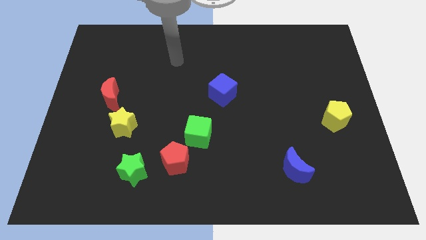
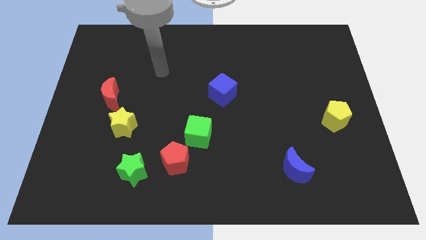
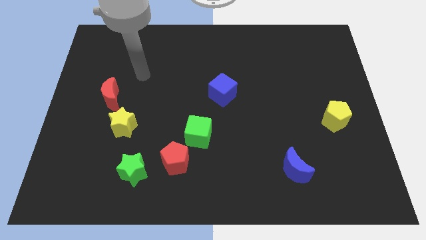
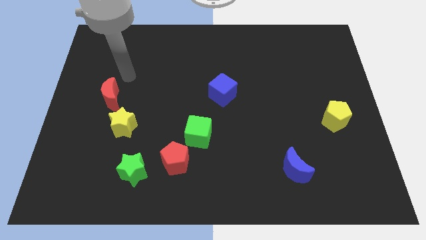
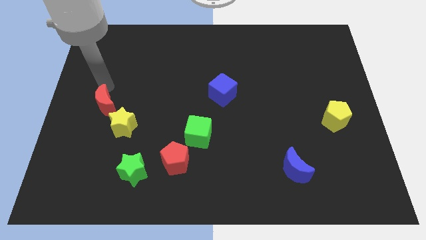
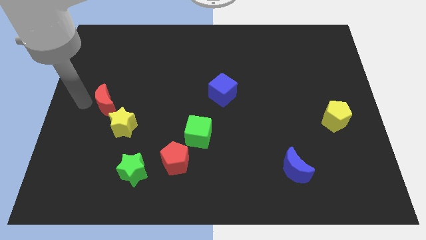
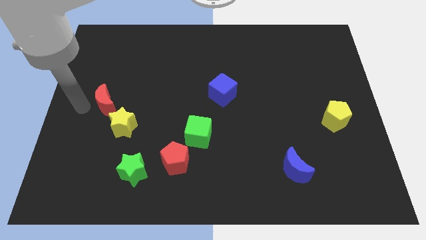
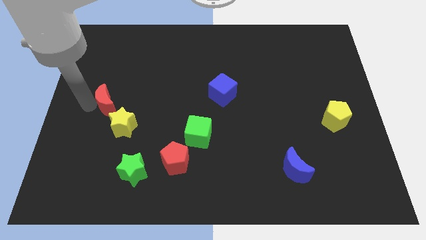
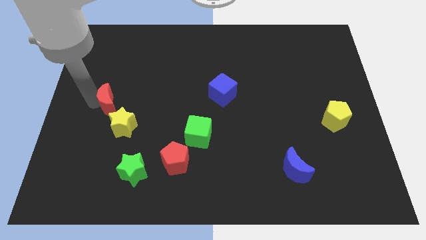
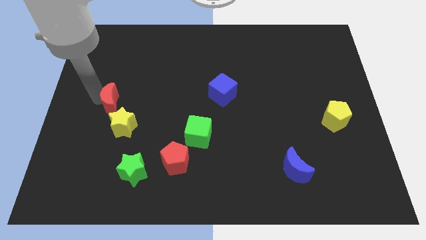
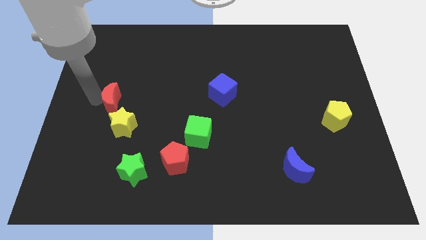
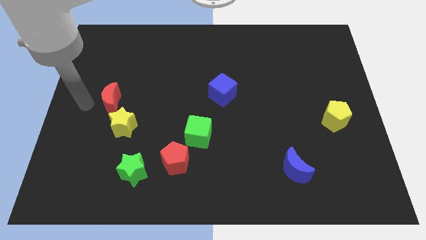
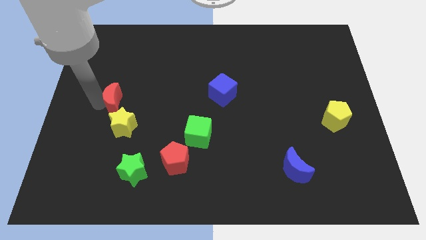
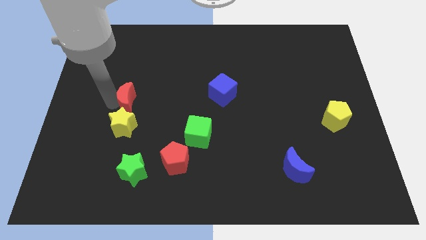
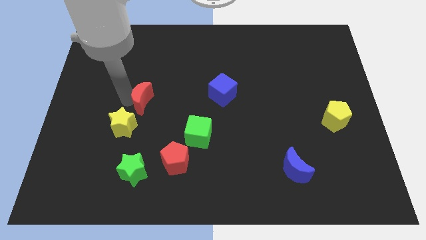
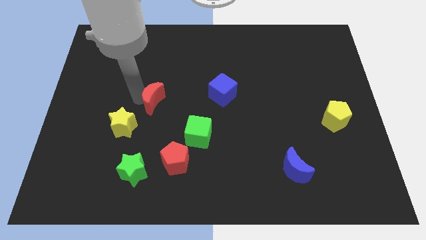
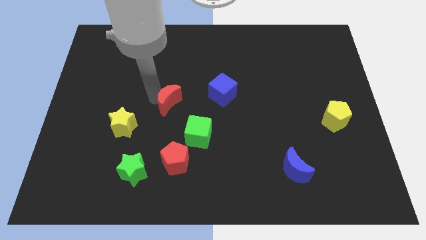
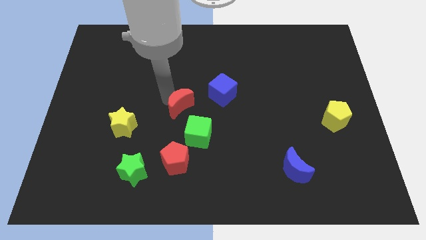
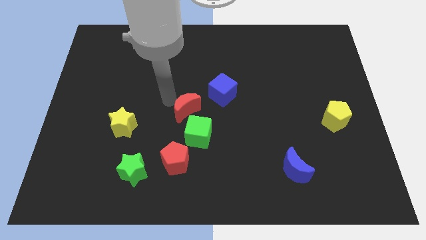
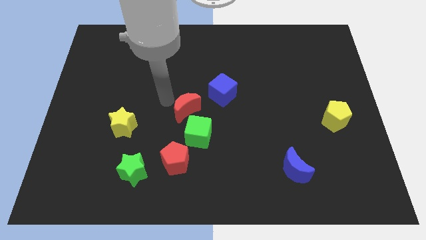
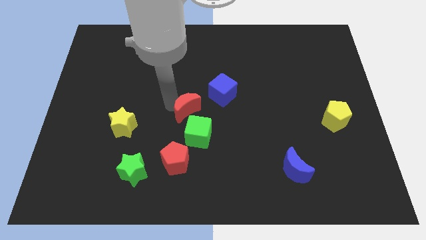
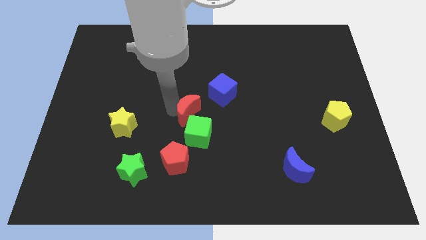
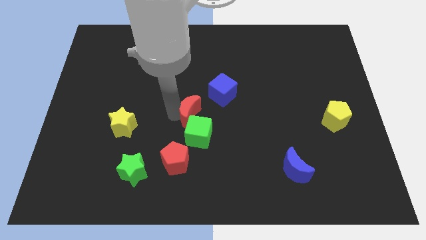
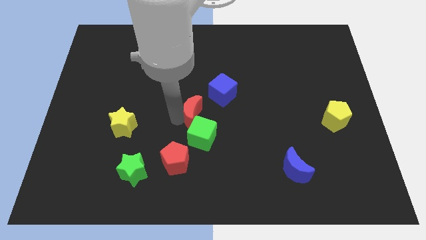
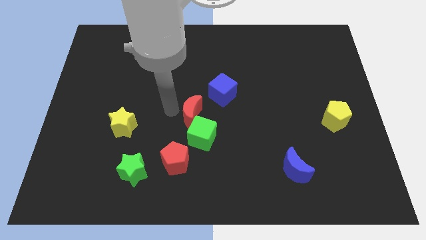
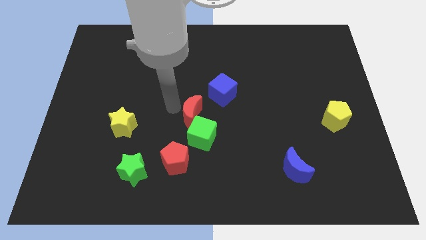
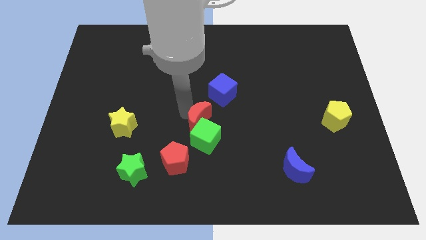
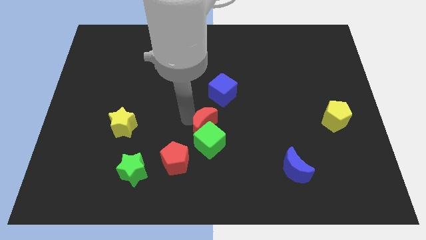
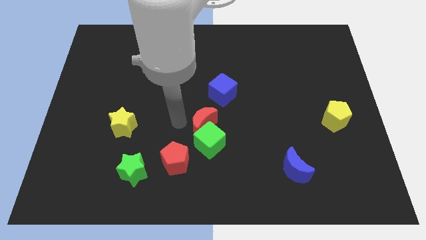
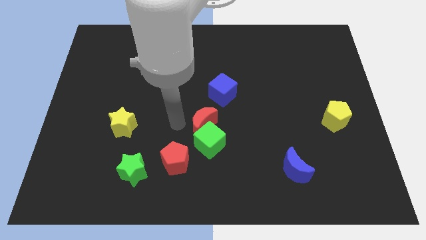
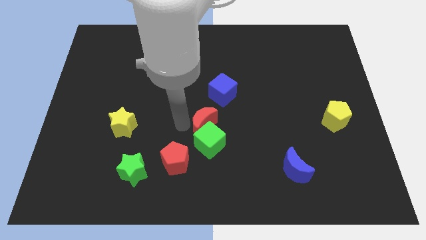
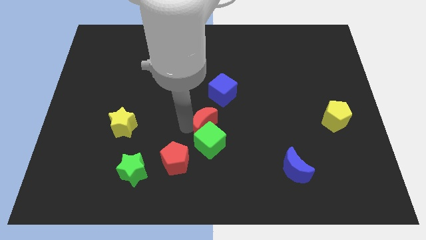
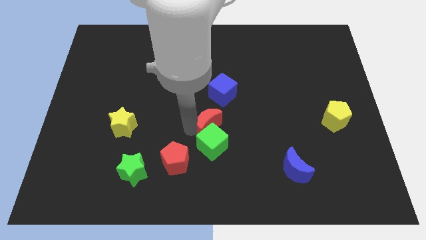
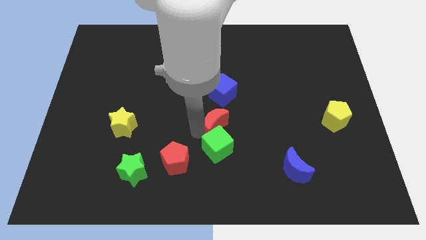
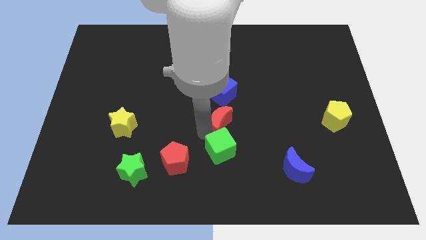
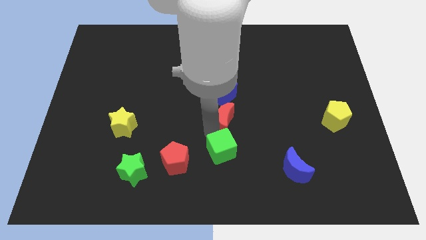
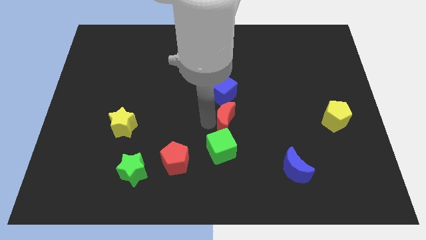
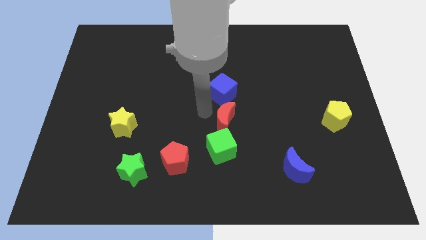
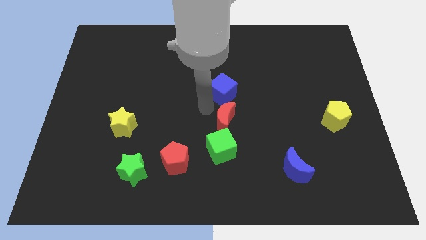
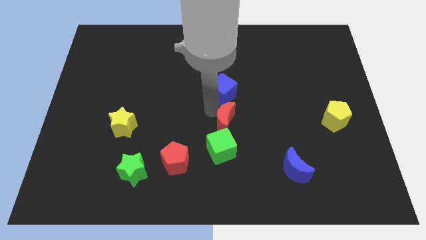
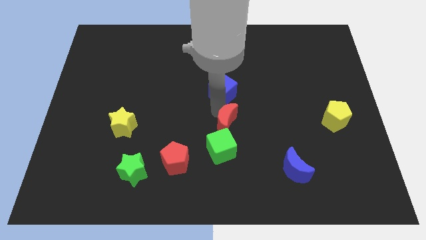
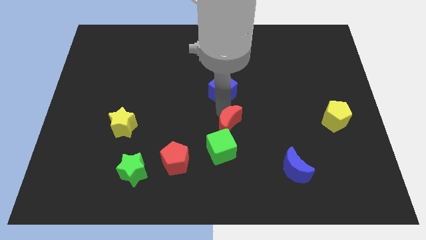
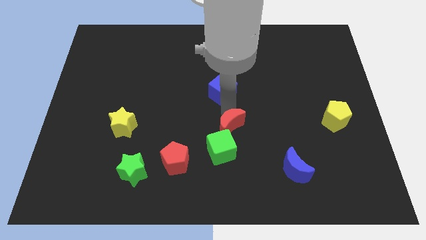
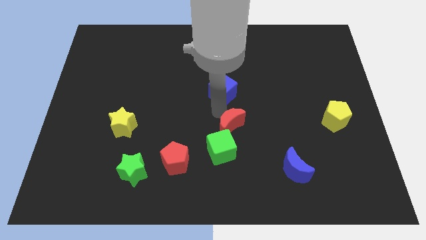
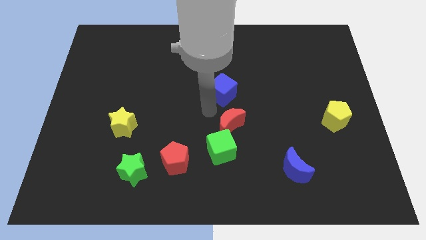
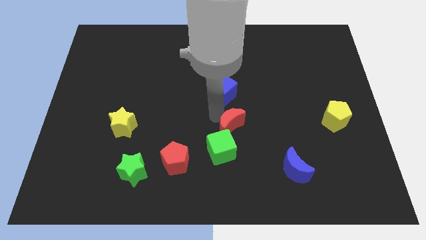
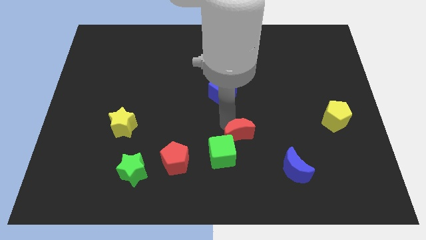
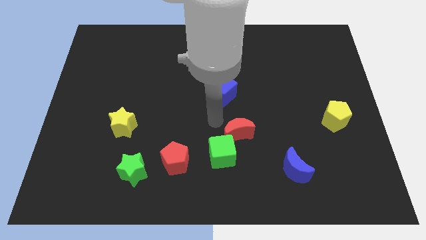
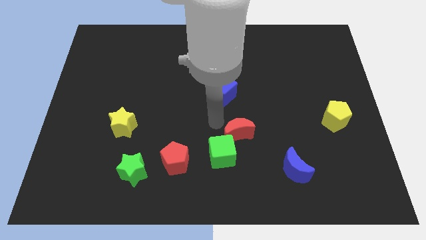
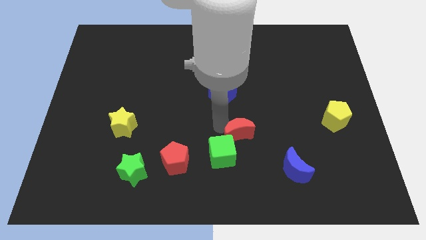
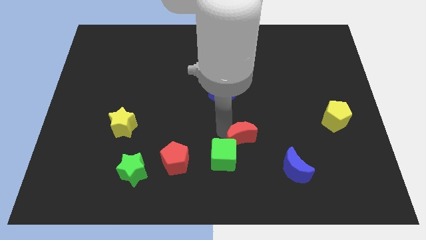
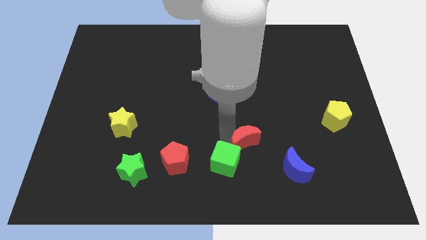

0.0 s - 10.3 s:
put the red moon diagonally up and to the left of the blue moon

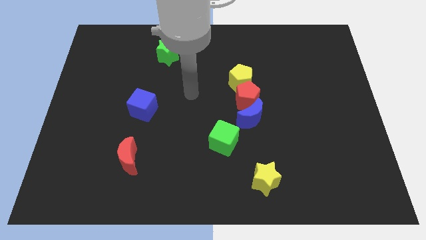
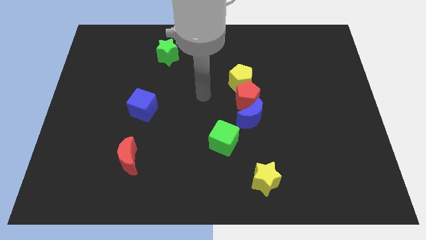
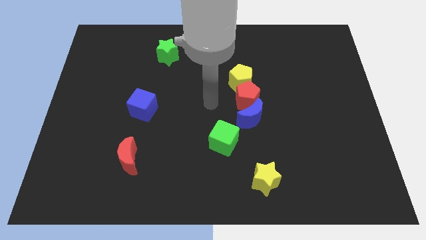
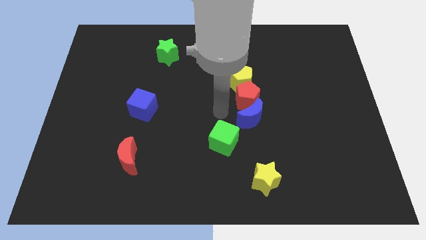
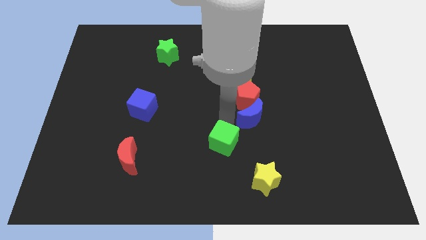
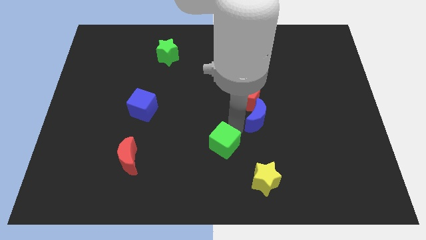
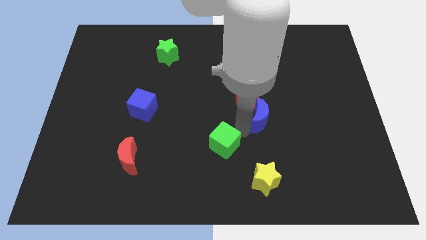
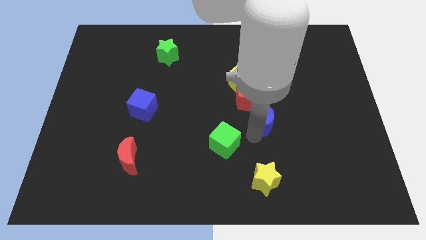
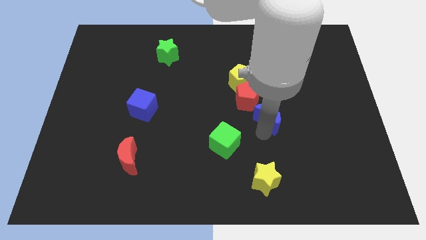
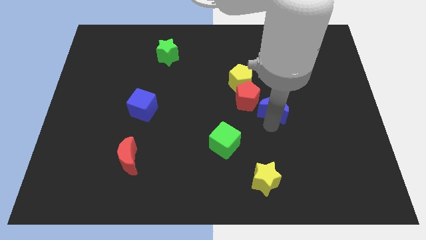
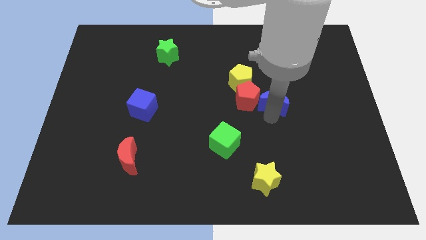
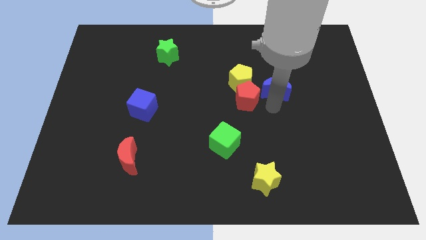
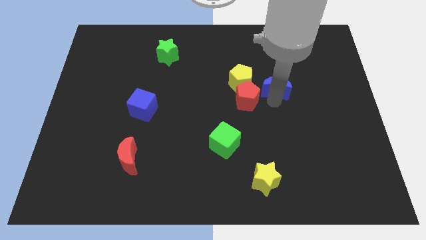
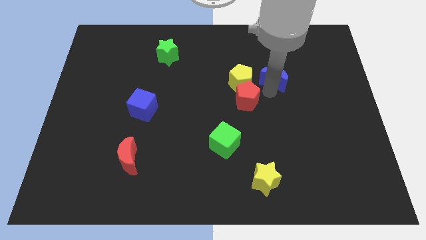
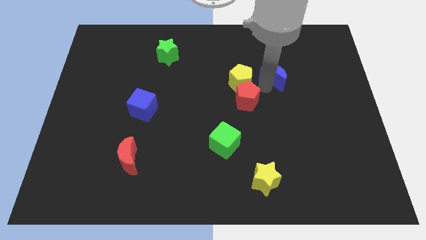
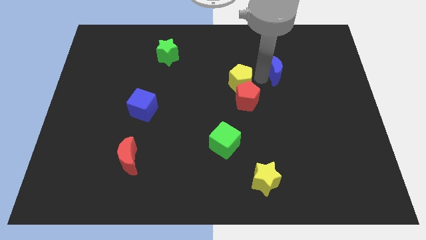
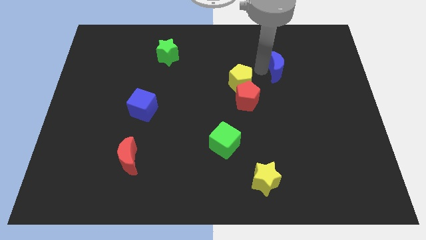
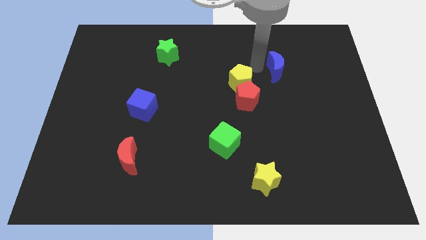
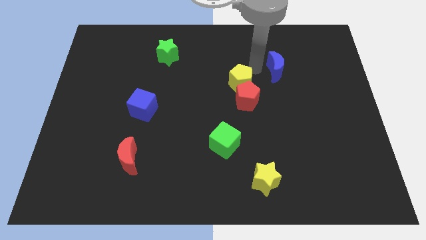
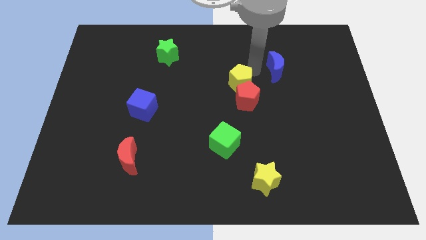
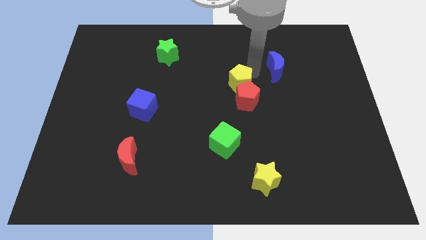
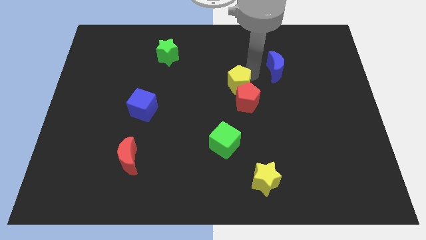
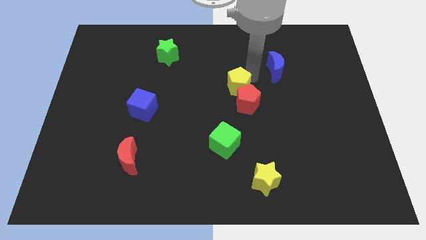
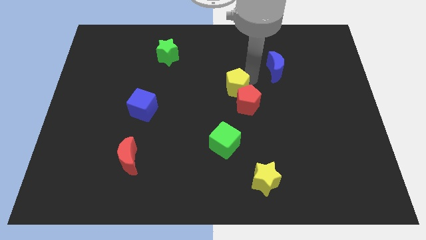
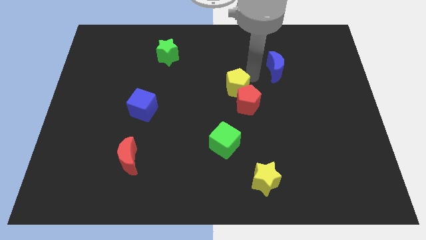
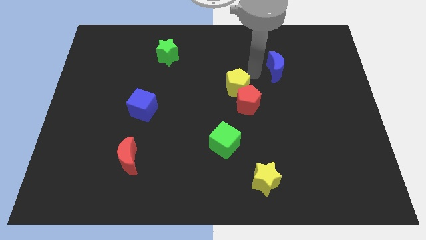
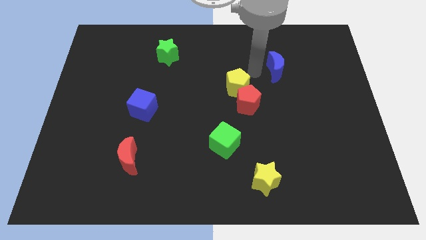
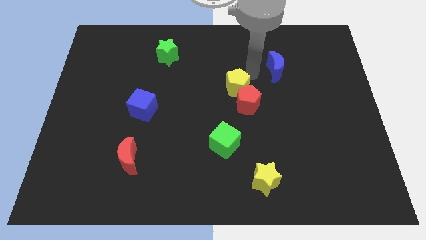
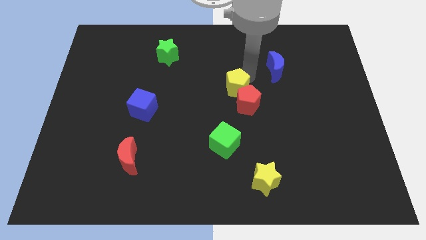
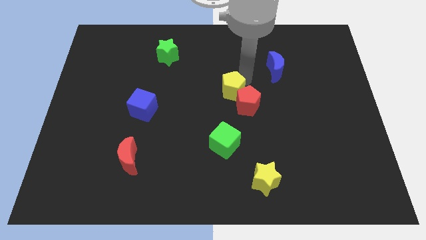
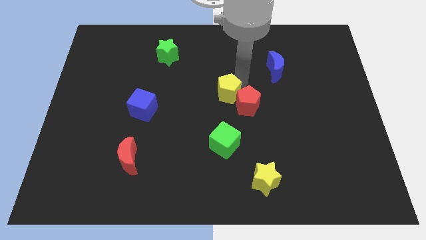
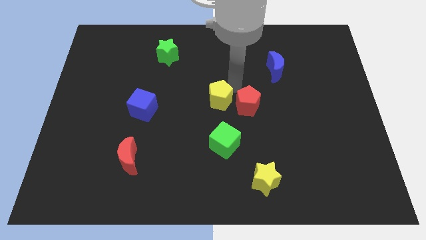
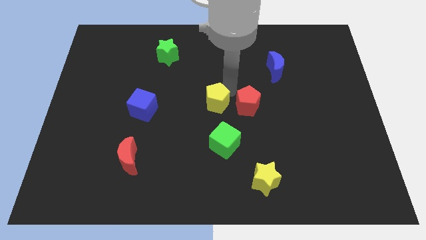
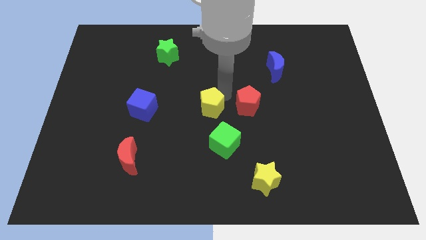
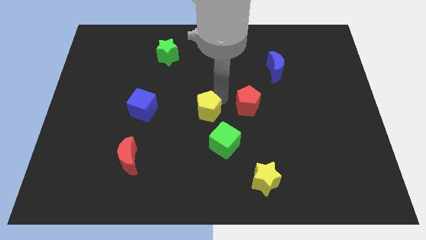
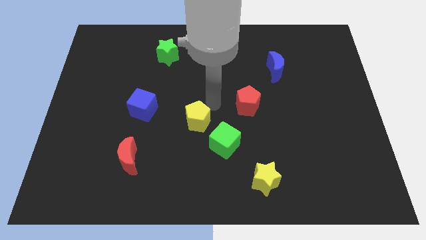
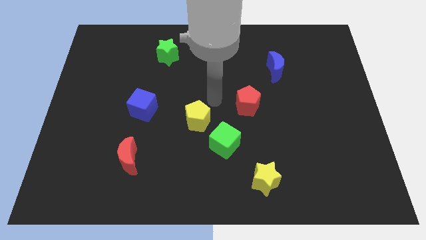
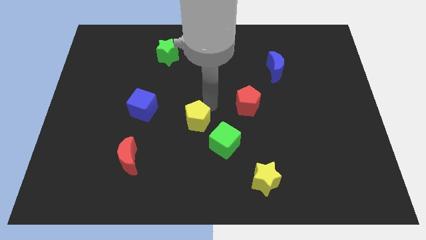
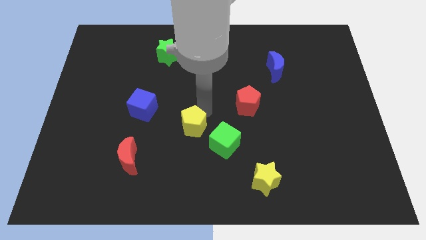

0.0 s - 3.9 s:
push the yellow pentagon to the left of the green cube
